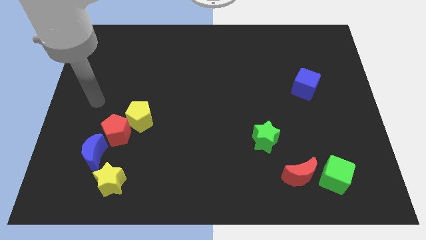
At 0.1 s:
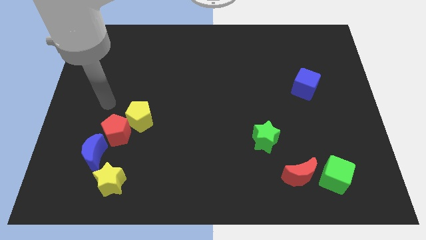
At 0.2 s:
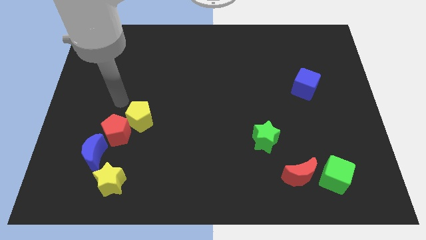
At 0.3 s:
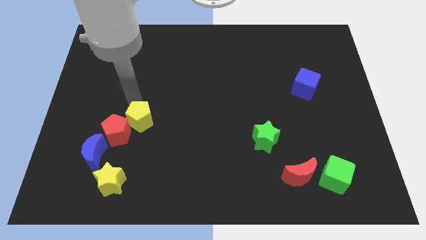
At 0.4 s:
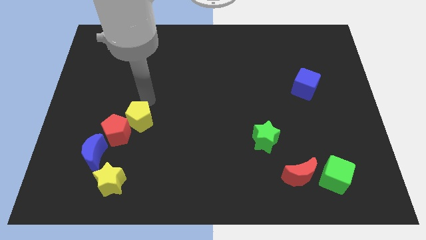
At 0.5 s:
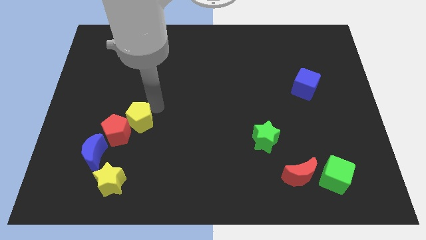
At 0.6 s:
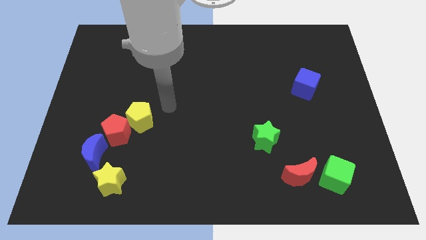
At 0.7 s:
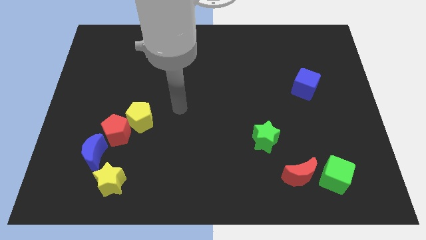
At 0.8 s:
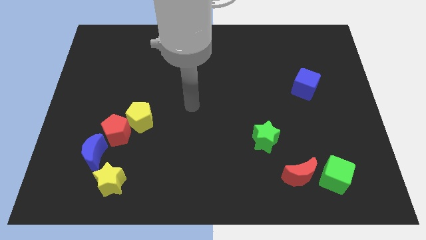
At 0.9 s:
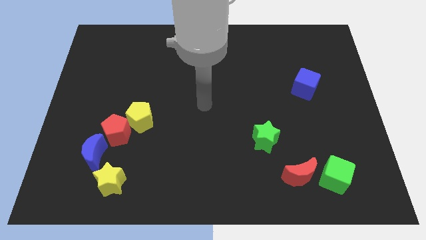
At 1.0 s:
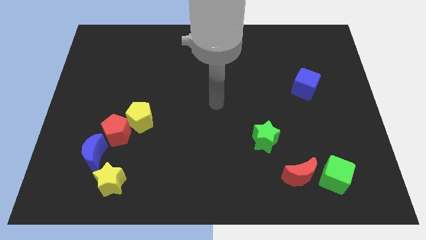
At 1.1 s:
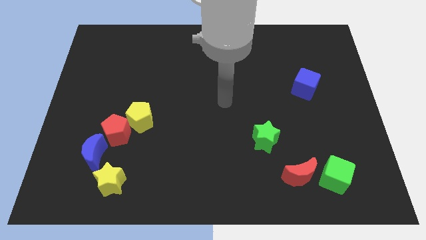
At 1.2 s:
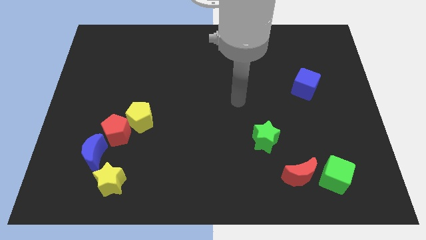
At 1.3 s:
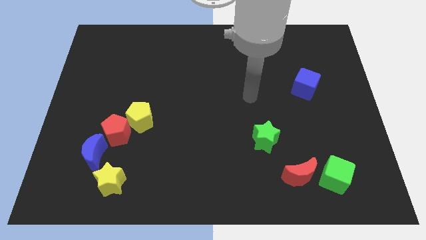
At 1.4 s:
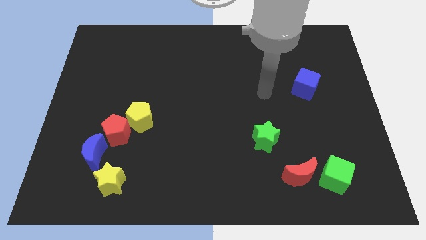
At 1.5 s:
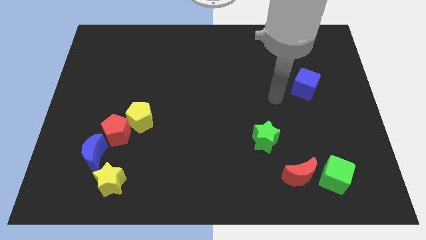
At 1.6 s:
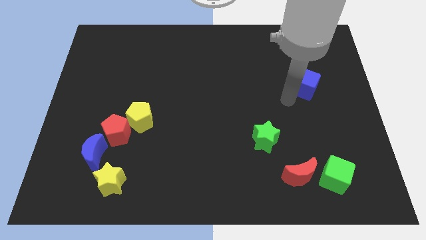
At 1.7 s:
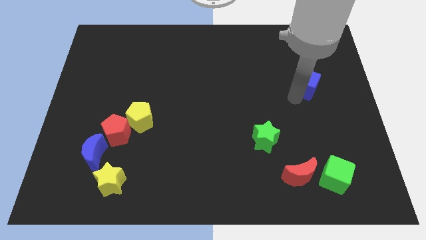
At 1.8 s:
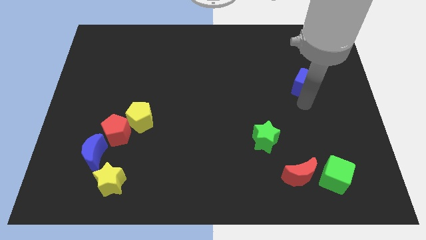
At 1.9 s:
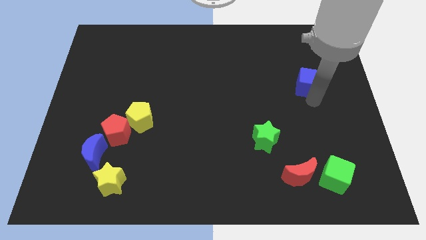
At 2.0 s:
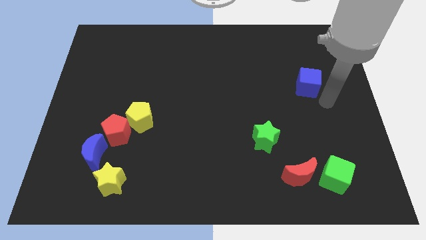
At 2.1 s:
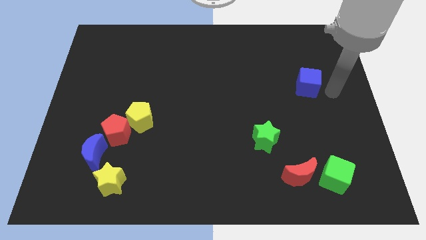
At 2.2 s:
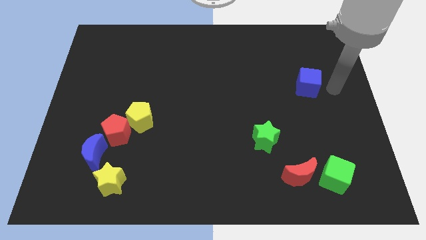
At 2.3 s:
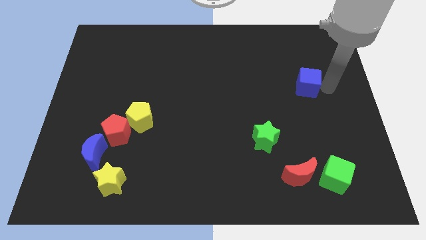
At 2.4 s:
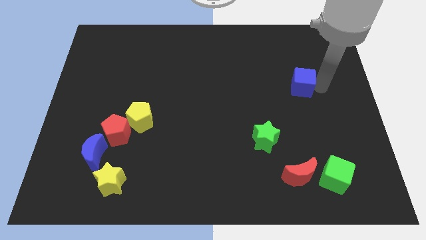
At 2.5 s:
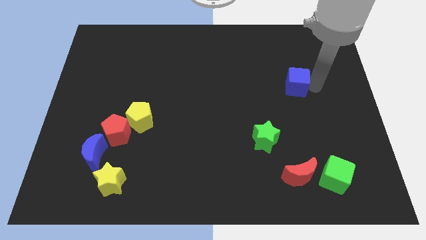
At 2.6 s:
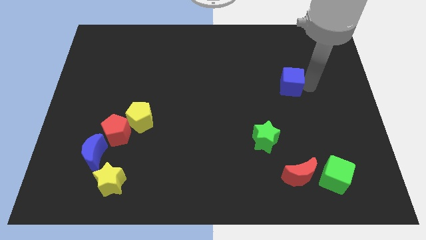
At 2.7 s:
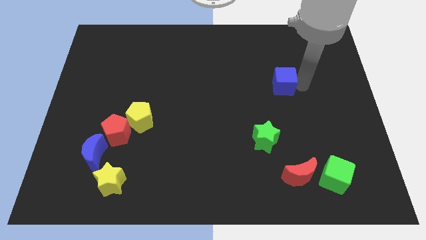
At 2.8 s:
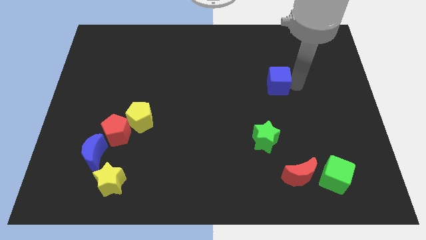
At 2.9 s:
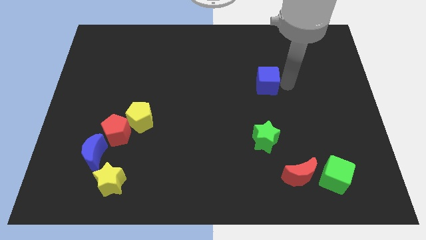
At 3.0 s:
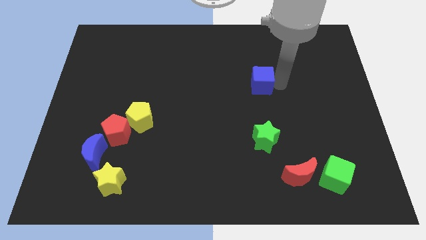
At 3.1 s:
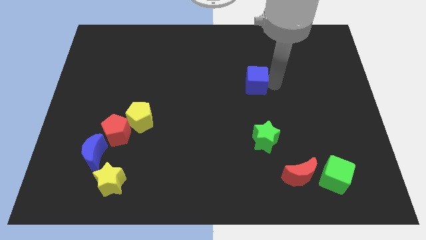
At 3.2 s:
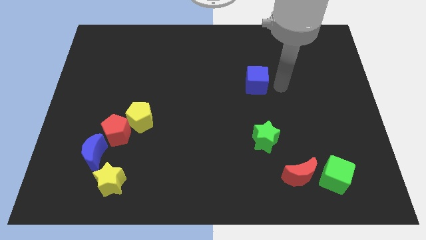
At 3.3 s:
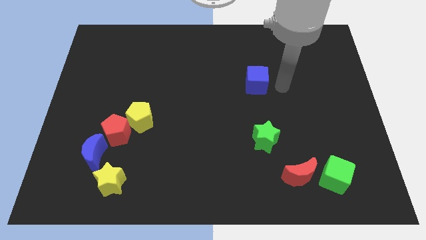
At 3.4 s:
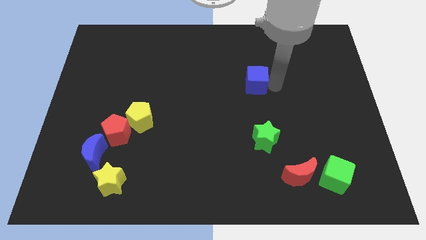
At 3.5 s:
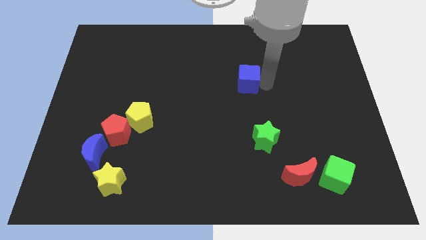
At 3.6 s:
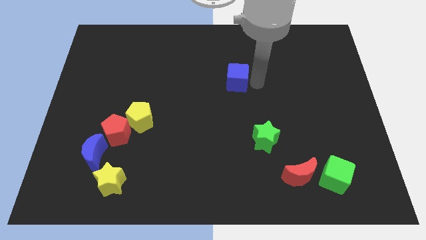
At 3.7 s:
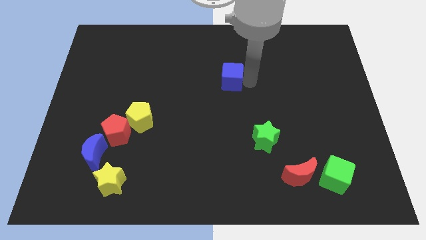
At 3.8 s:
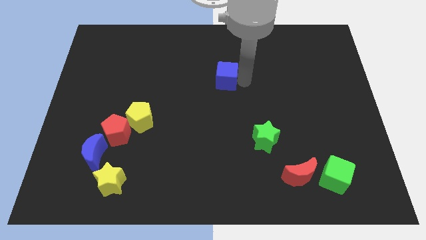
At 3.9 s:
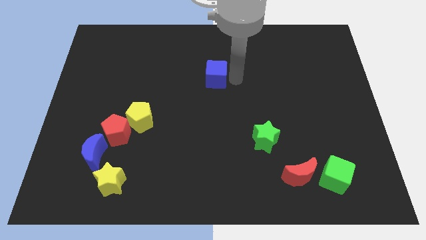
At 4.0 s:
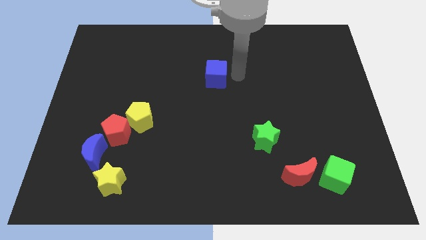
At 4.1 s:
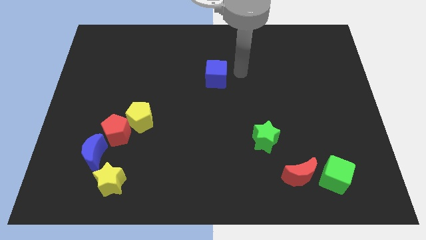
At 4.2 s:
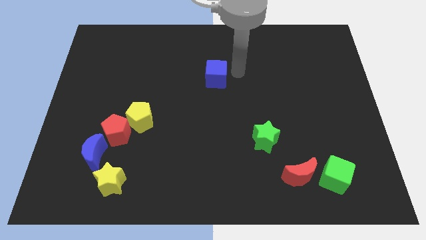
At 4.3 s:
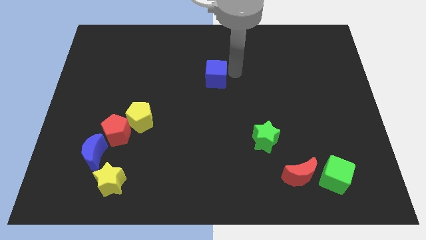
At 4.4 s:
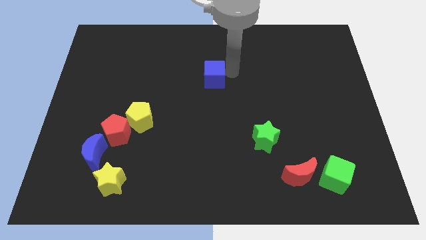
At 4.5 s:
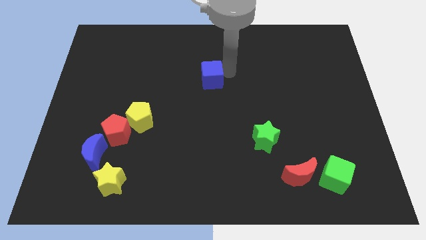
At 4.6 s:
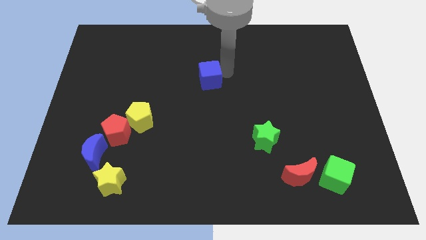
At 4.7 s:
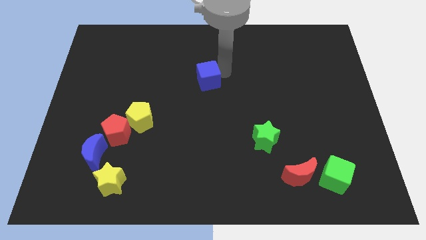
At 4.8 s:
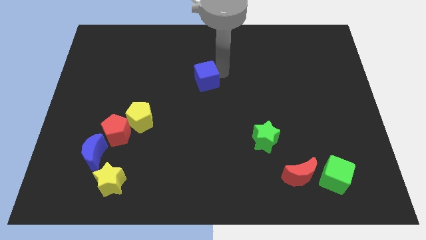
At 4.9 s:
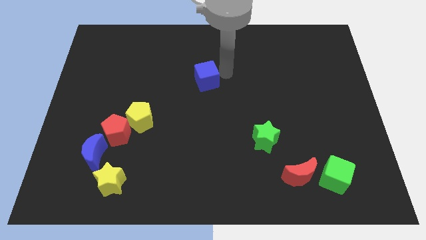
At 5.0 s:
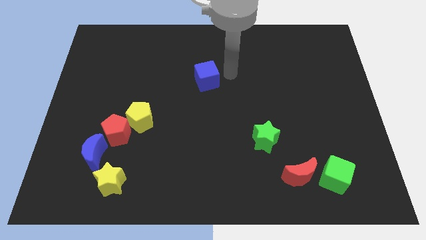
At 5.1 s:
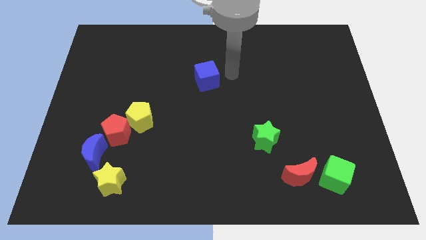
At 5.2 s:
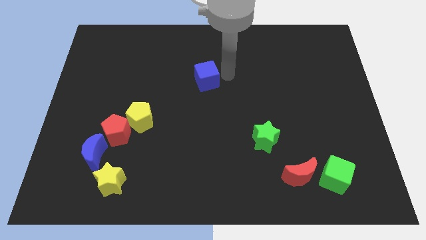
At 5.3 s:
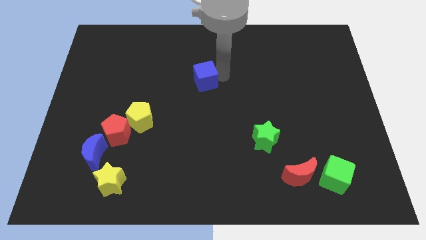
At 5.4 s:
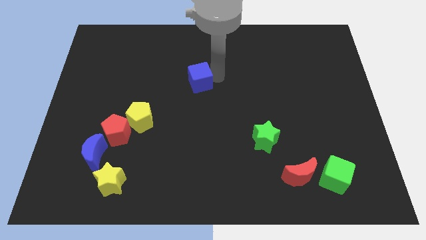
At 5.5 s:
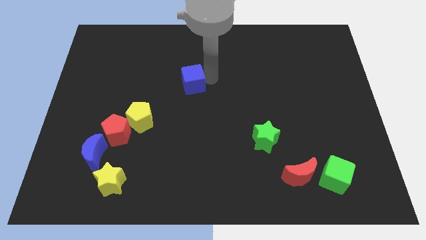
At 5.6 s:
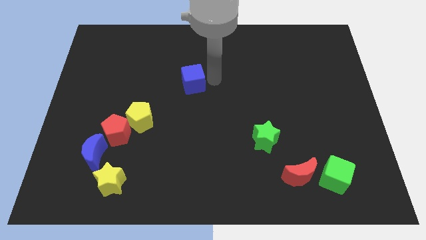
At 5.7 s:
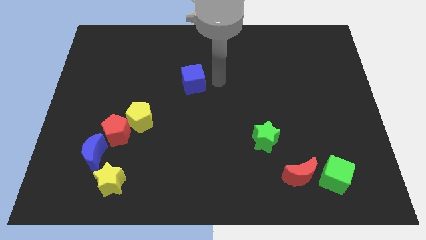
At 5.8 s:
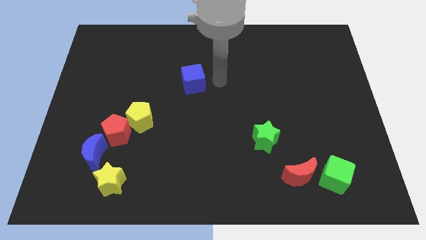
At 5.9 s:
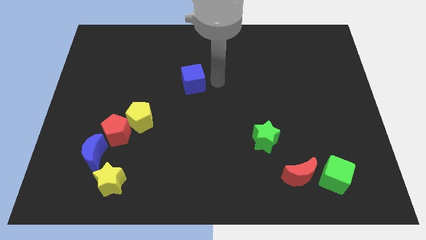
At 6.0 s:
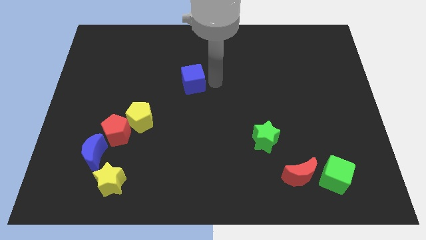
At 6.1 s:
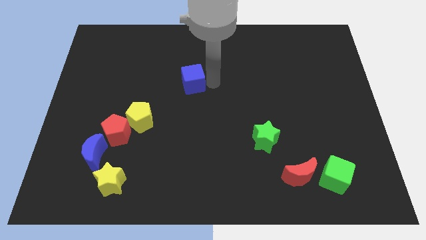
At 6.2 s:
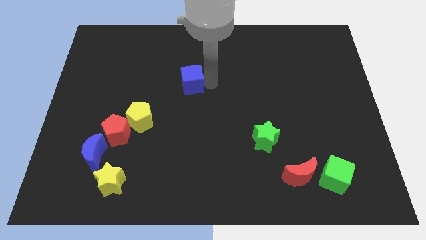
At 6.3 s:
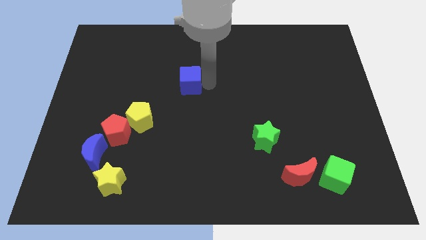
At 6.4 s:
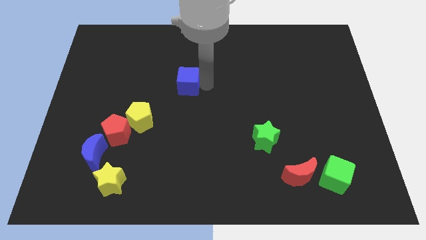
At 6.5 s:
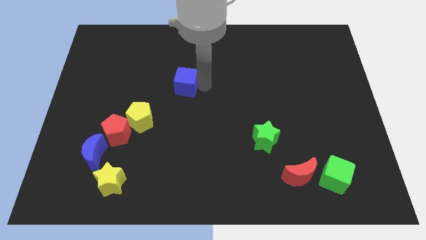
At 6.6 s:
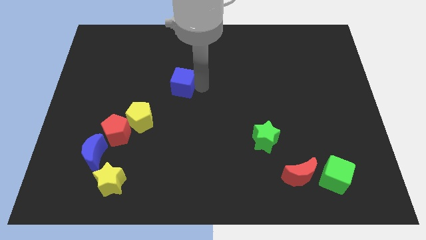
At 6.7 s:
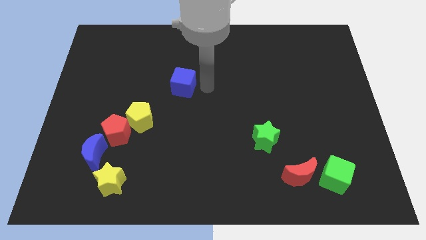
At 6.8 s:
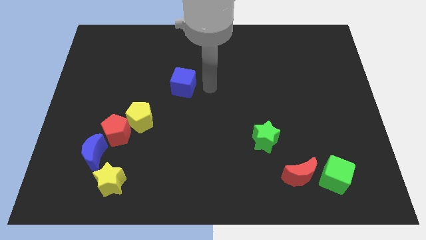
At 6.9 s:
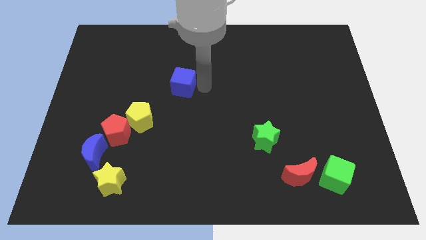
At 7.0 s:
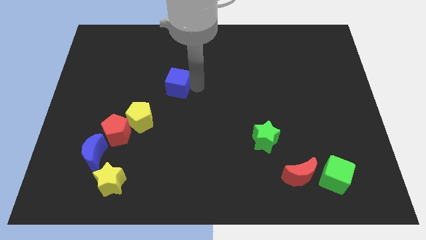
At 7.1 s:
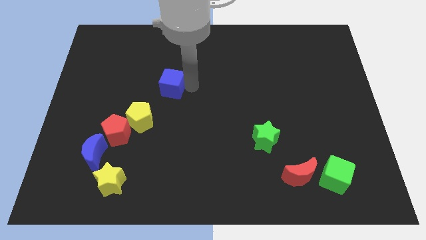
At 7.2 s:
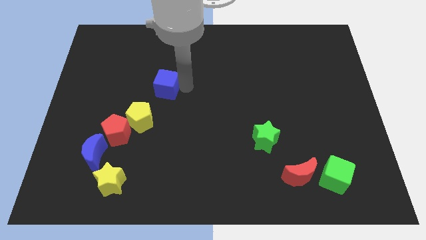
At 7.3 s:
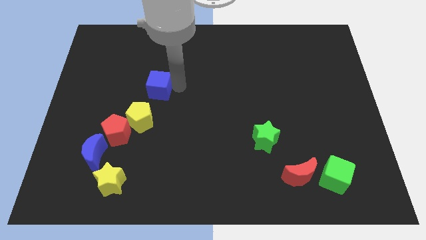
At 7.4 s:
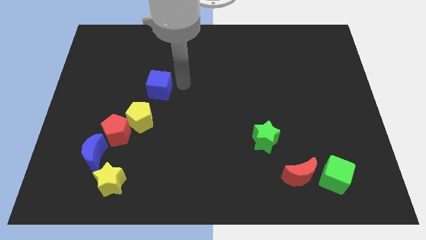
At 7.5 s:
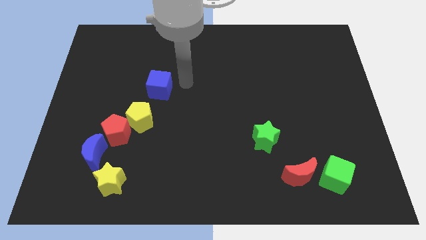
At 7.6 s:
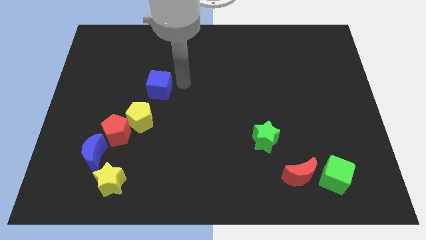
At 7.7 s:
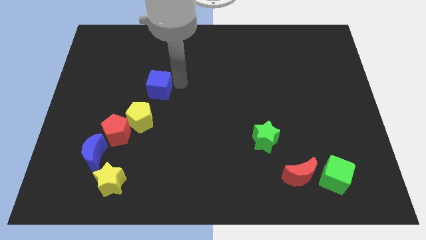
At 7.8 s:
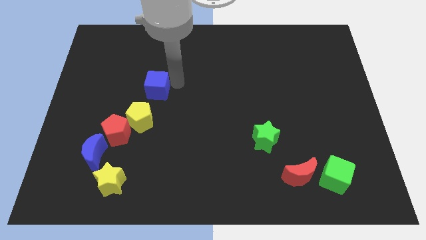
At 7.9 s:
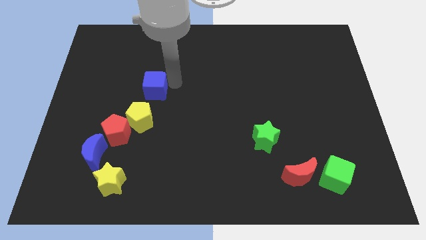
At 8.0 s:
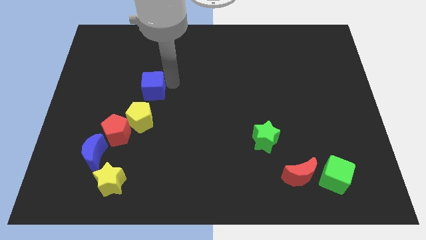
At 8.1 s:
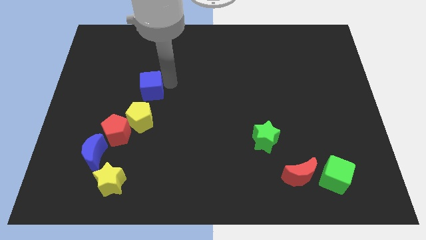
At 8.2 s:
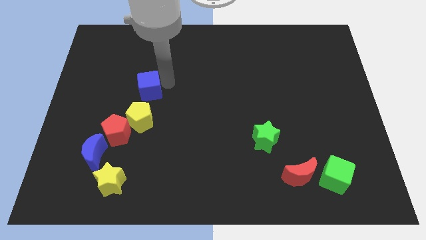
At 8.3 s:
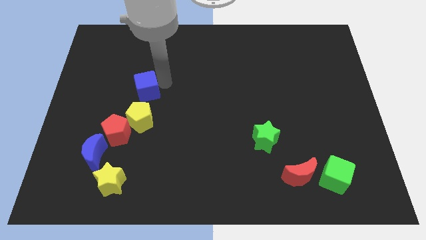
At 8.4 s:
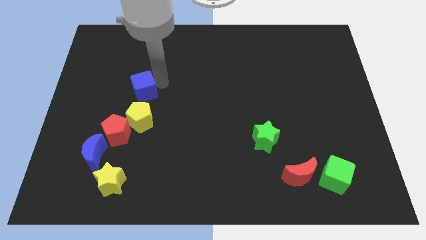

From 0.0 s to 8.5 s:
put the blue cube above the red pentagon

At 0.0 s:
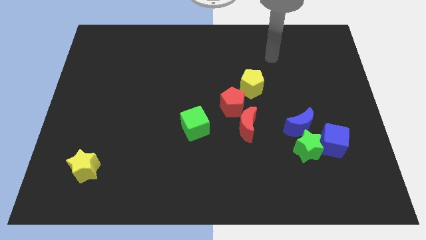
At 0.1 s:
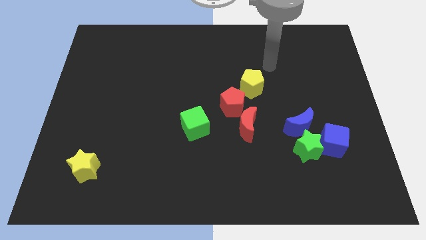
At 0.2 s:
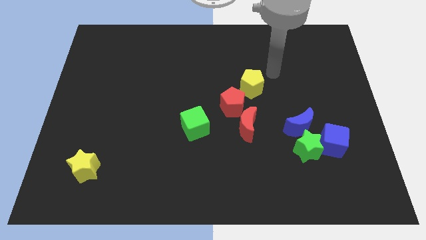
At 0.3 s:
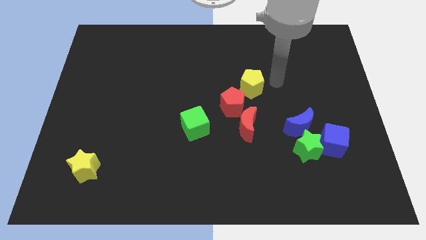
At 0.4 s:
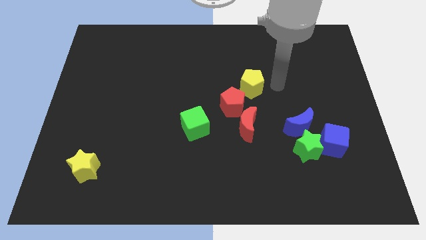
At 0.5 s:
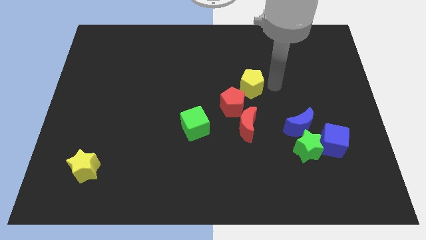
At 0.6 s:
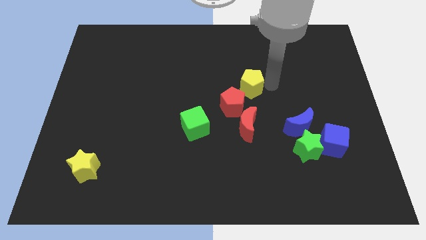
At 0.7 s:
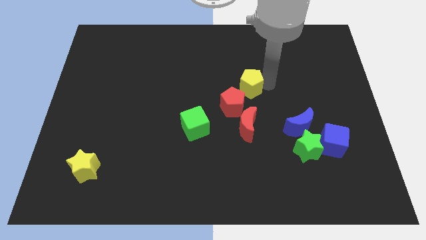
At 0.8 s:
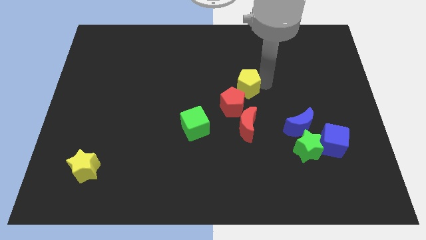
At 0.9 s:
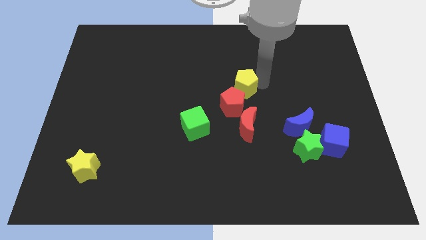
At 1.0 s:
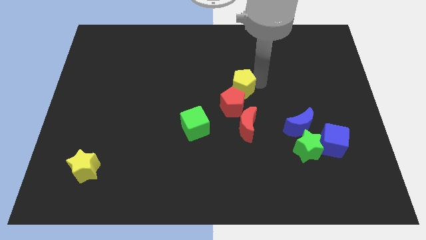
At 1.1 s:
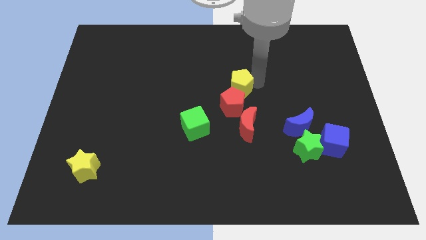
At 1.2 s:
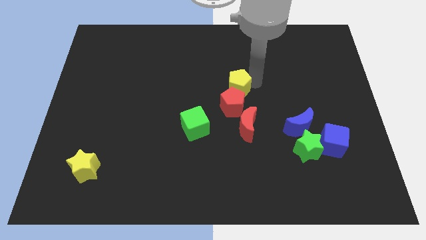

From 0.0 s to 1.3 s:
move the yellow pentagon to the top left side of the red pentagon
